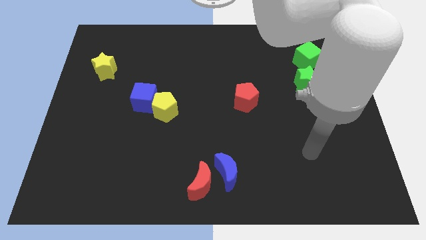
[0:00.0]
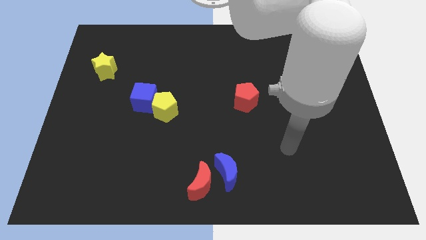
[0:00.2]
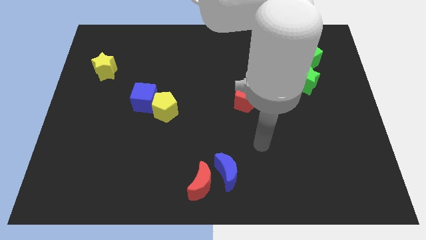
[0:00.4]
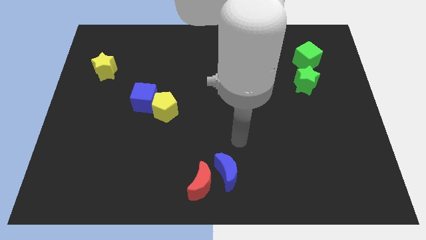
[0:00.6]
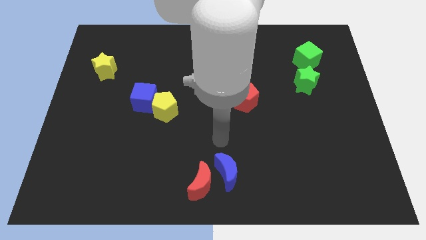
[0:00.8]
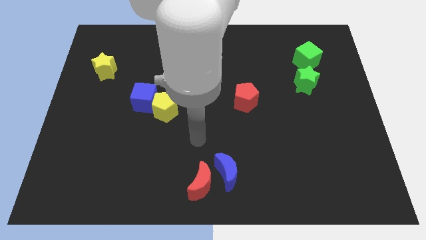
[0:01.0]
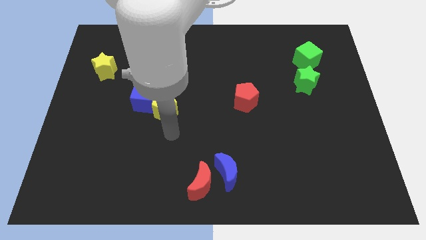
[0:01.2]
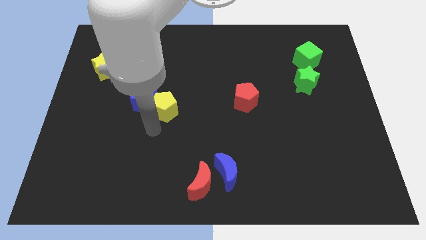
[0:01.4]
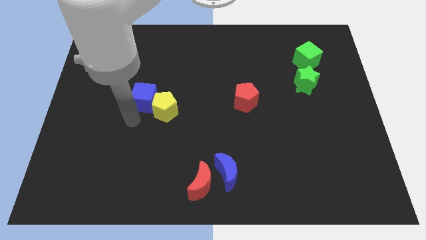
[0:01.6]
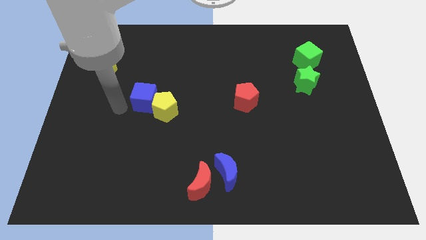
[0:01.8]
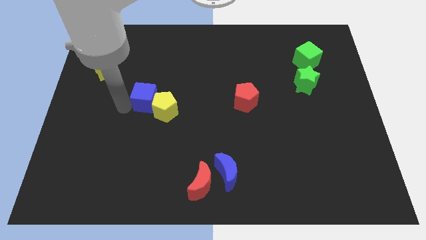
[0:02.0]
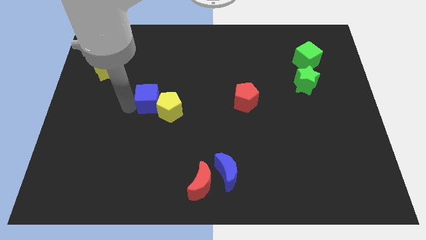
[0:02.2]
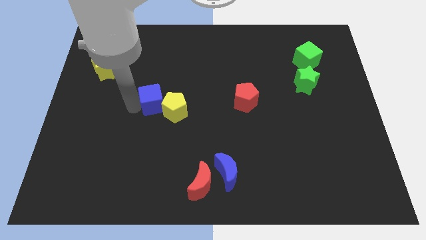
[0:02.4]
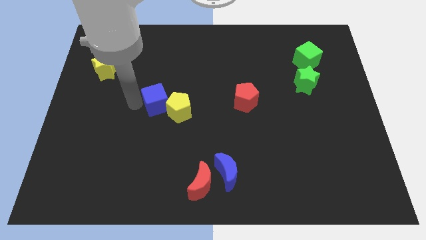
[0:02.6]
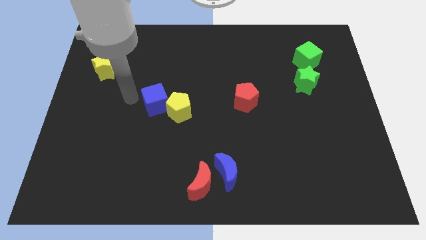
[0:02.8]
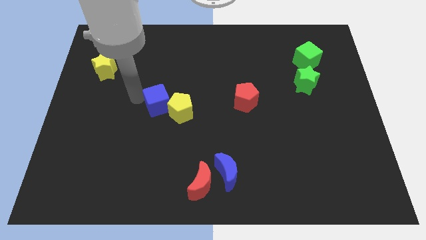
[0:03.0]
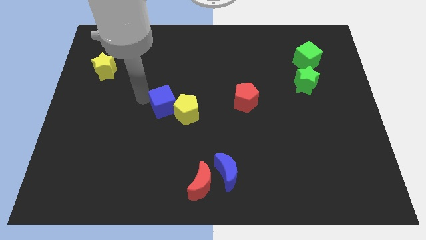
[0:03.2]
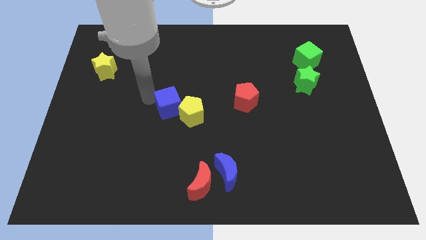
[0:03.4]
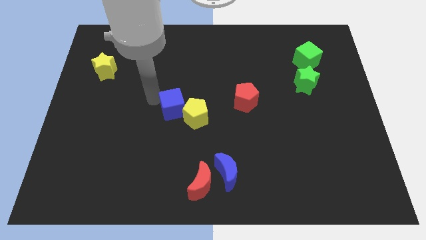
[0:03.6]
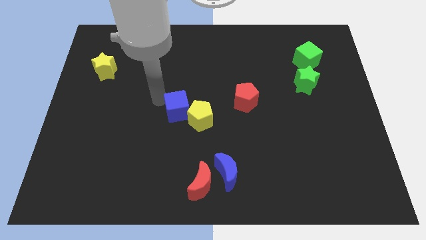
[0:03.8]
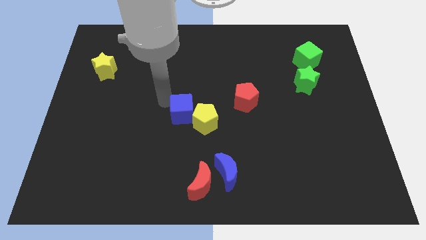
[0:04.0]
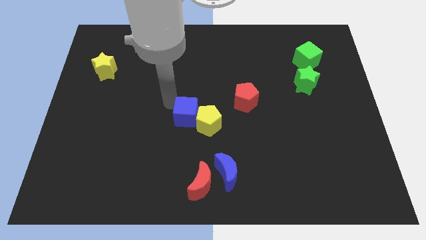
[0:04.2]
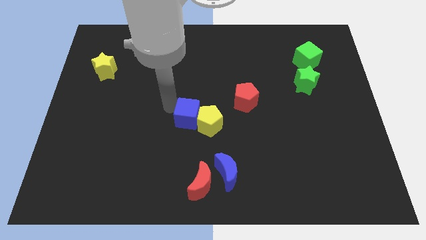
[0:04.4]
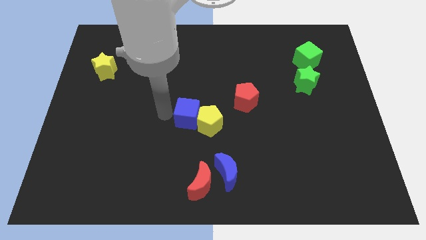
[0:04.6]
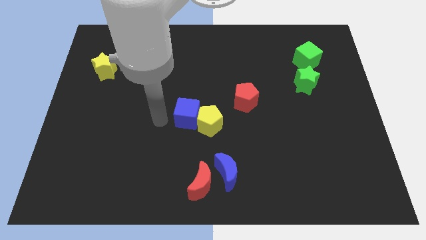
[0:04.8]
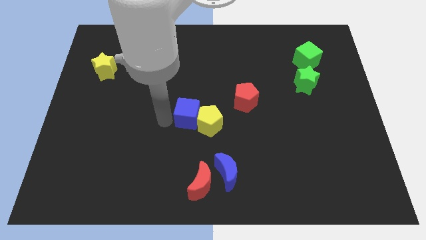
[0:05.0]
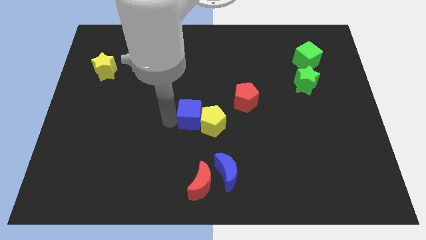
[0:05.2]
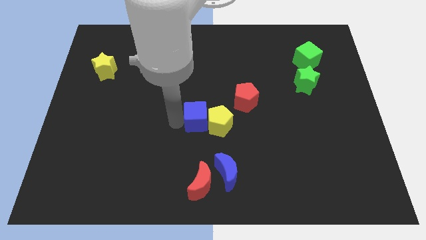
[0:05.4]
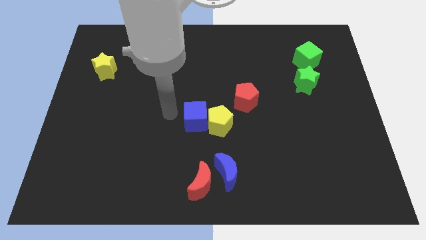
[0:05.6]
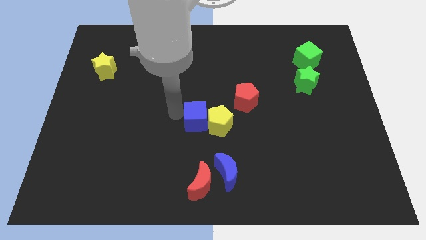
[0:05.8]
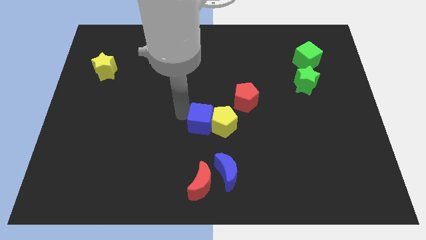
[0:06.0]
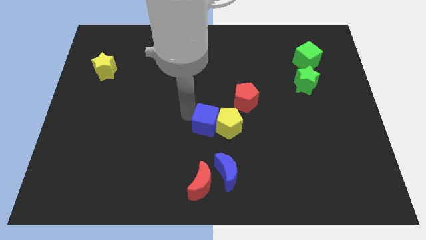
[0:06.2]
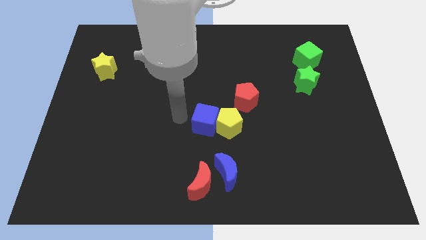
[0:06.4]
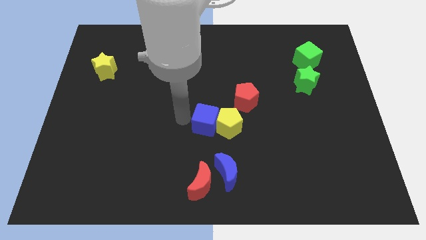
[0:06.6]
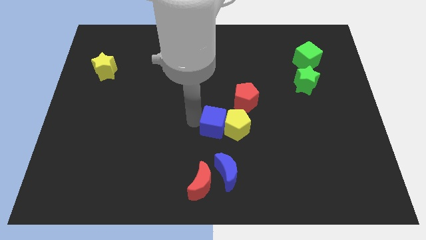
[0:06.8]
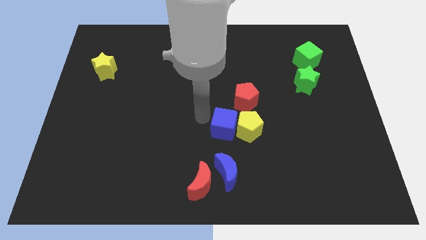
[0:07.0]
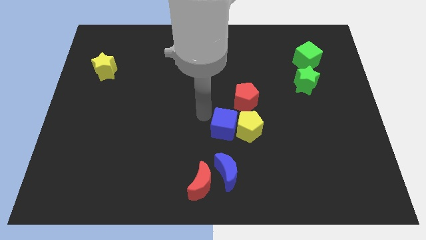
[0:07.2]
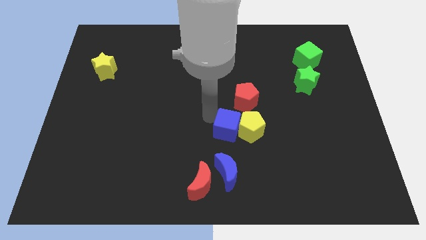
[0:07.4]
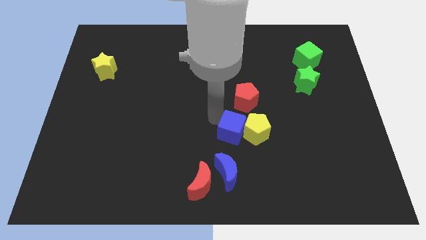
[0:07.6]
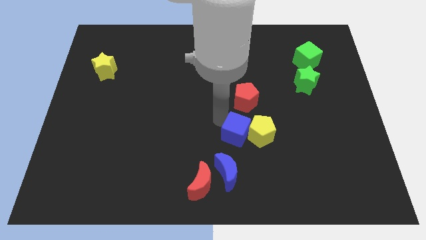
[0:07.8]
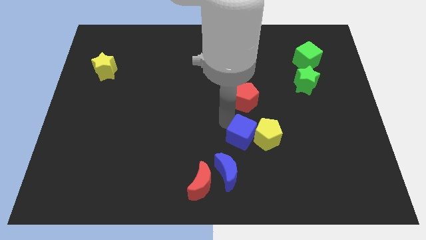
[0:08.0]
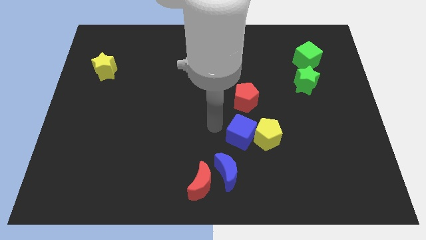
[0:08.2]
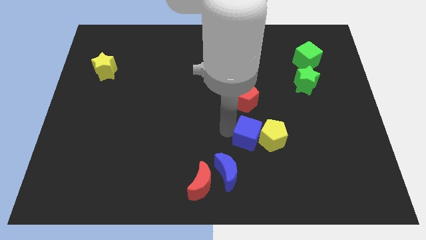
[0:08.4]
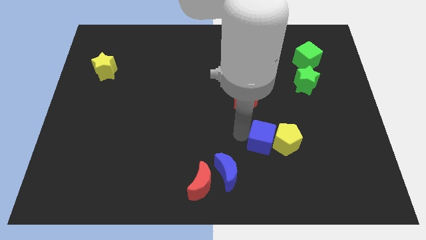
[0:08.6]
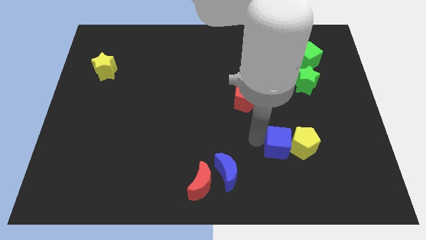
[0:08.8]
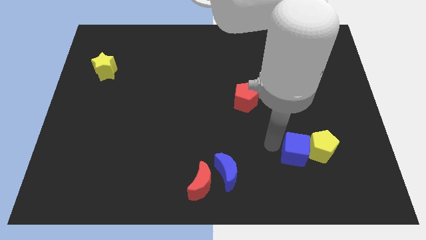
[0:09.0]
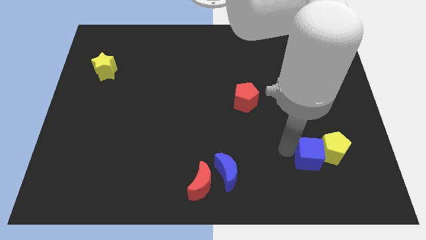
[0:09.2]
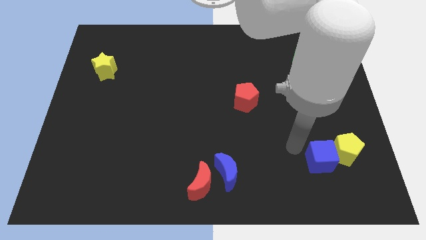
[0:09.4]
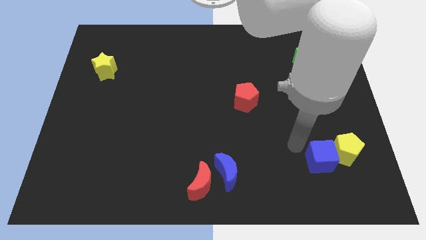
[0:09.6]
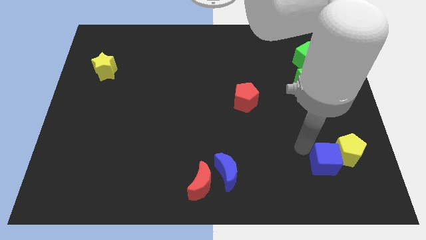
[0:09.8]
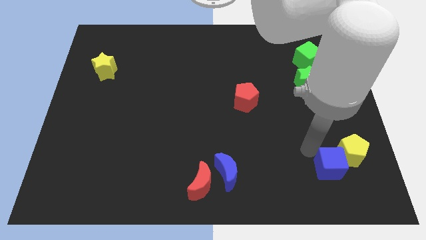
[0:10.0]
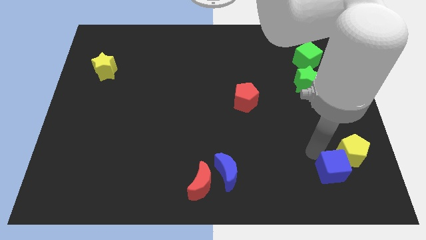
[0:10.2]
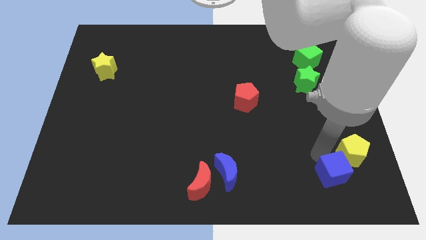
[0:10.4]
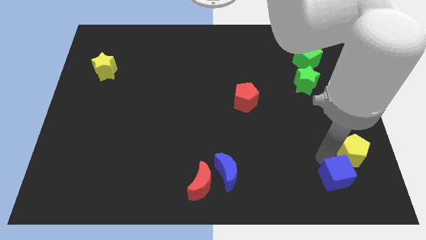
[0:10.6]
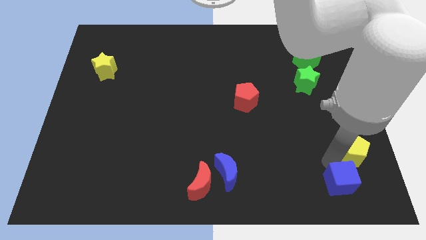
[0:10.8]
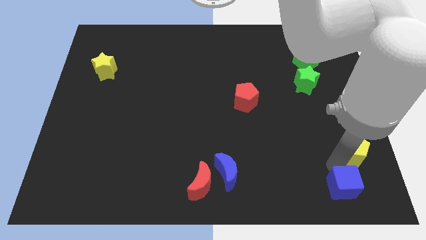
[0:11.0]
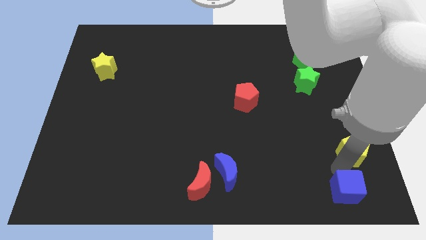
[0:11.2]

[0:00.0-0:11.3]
slide the blue cube to the bottom right
